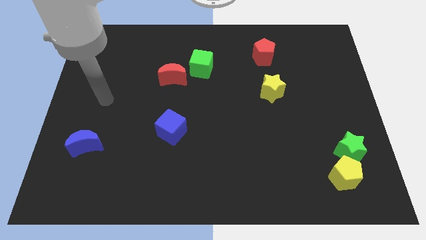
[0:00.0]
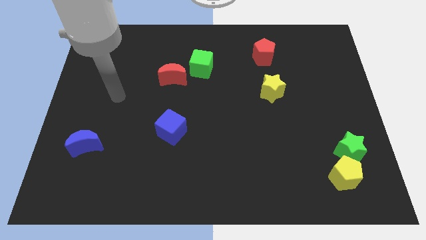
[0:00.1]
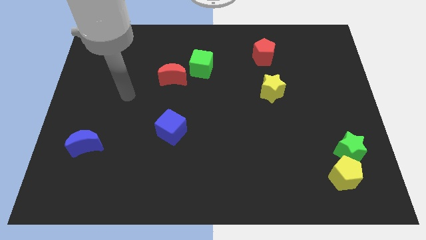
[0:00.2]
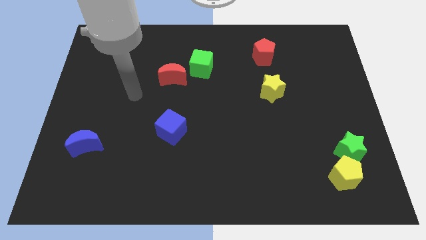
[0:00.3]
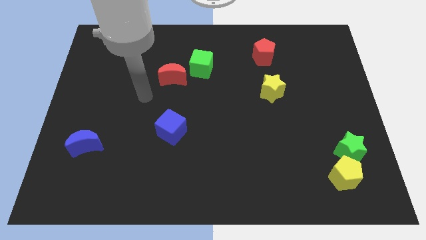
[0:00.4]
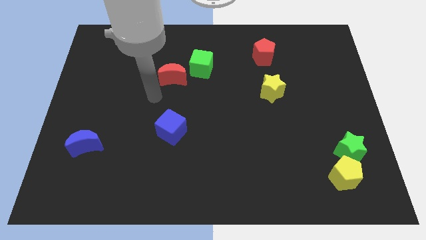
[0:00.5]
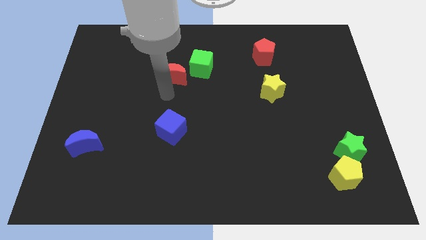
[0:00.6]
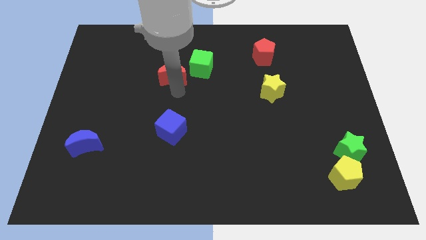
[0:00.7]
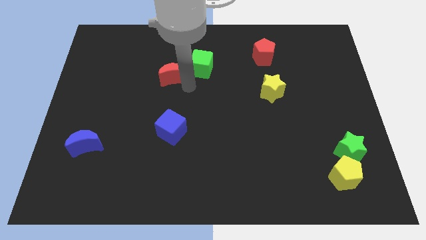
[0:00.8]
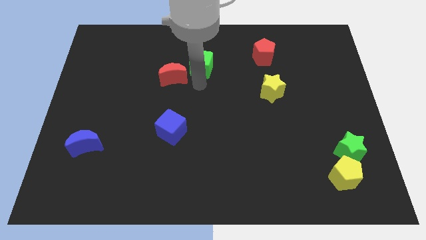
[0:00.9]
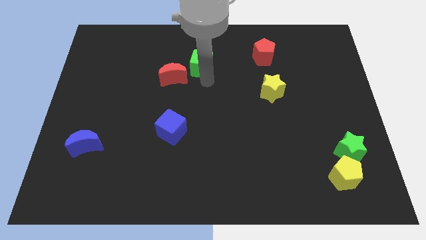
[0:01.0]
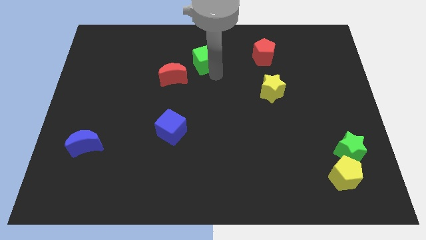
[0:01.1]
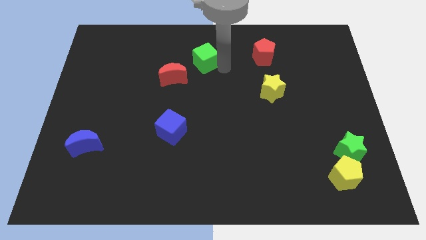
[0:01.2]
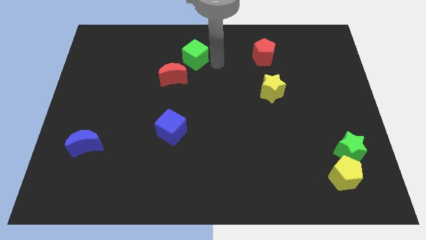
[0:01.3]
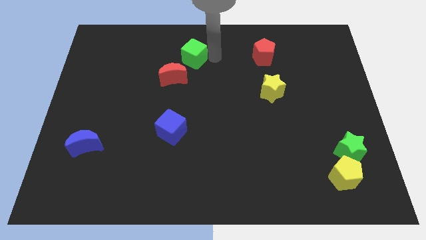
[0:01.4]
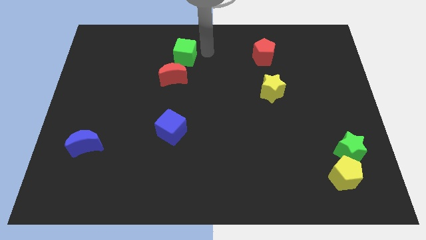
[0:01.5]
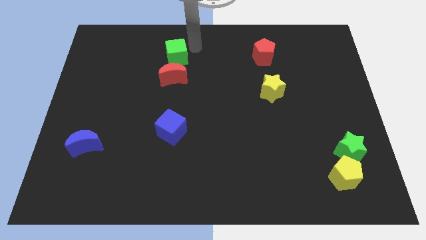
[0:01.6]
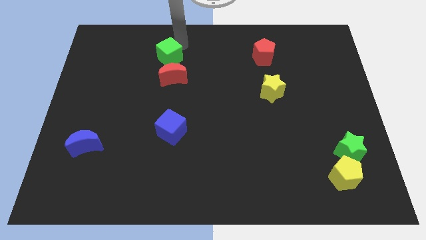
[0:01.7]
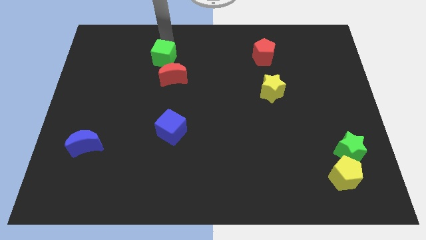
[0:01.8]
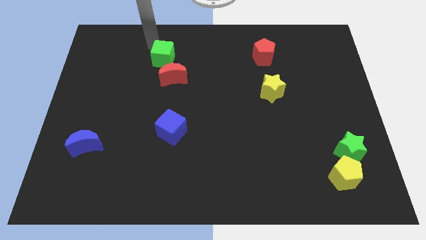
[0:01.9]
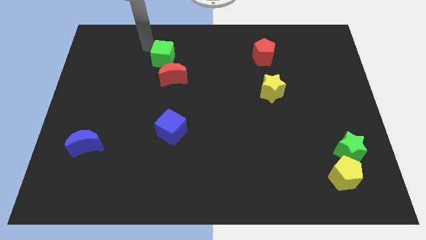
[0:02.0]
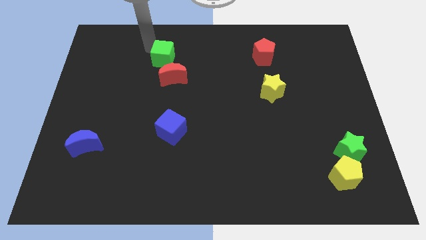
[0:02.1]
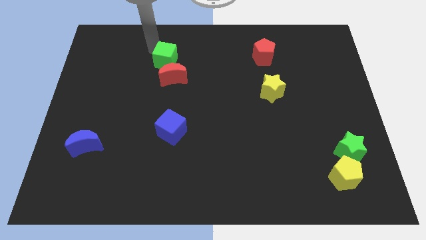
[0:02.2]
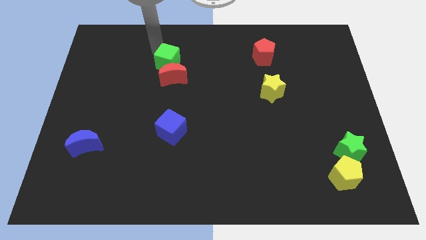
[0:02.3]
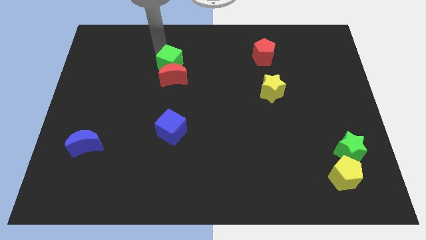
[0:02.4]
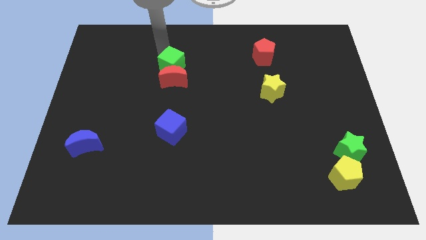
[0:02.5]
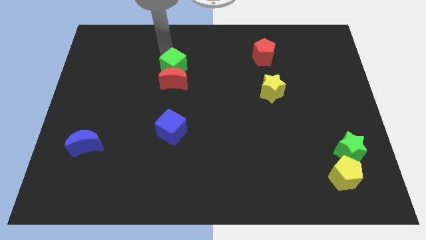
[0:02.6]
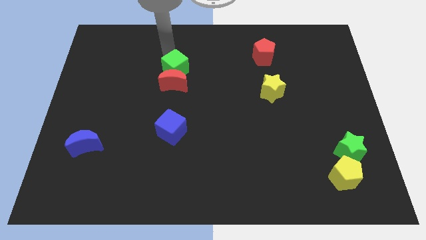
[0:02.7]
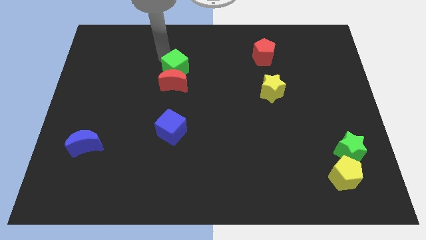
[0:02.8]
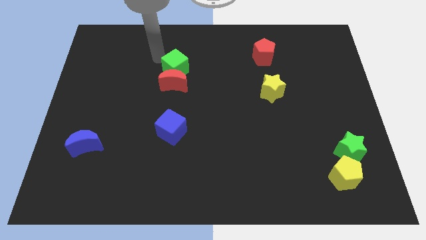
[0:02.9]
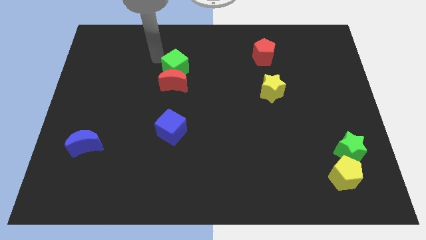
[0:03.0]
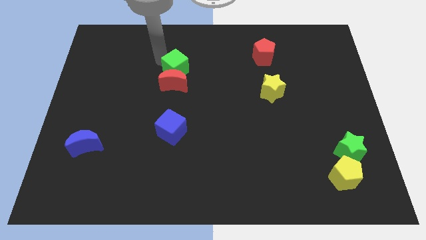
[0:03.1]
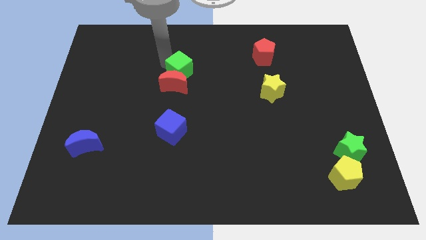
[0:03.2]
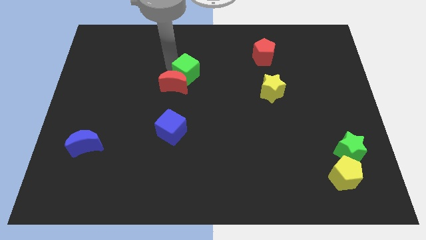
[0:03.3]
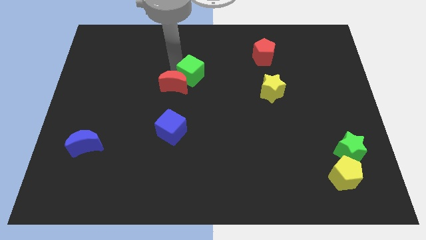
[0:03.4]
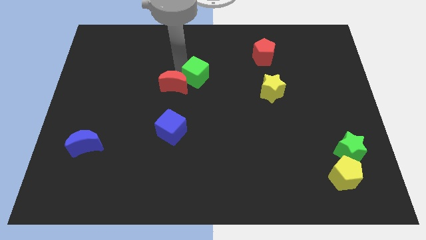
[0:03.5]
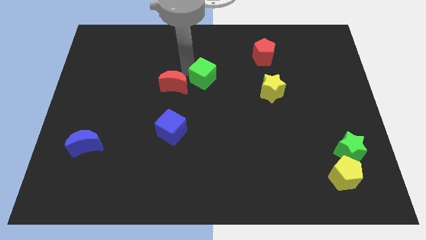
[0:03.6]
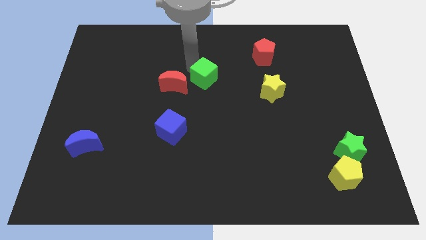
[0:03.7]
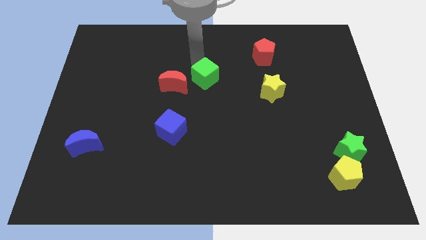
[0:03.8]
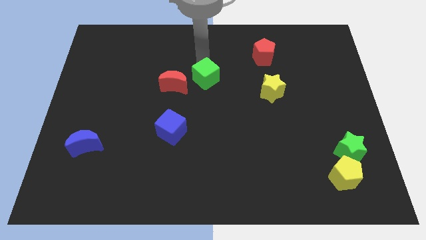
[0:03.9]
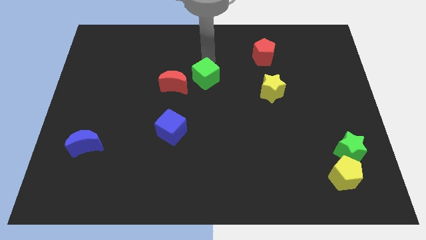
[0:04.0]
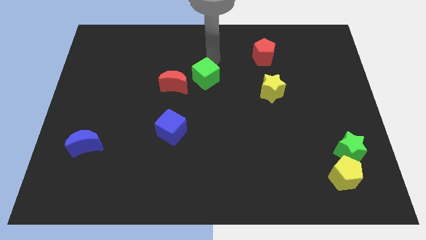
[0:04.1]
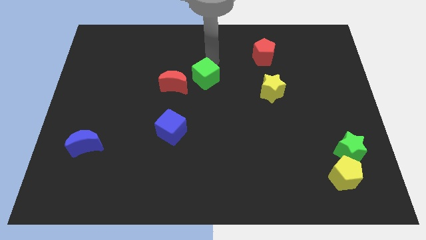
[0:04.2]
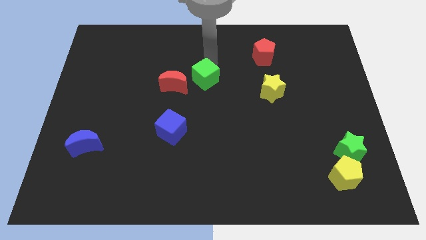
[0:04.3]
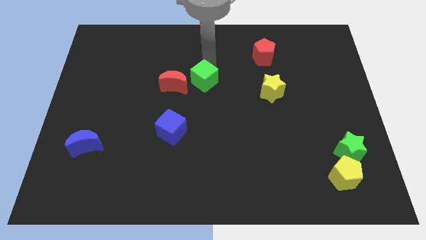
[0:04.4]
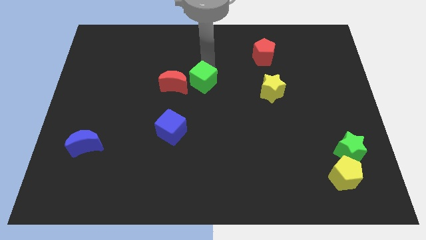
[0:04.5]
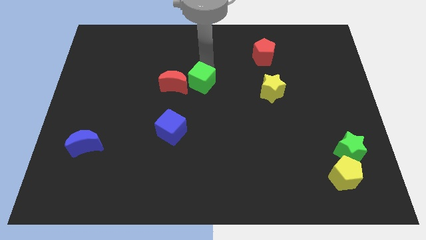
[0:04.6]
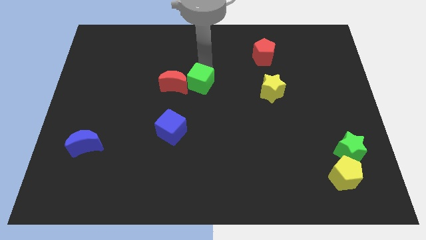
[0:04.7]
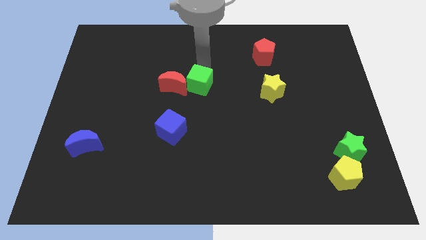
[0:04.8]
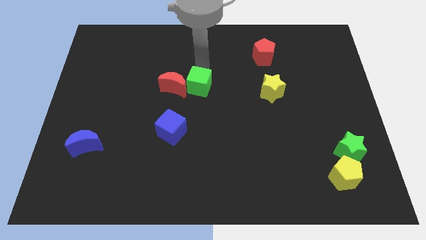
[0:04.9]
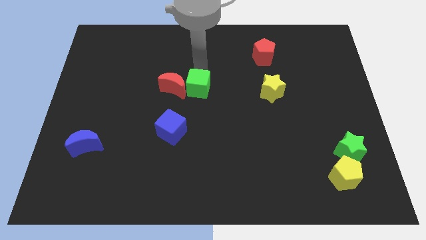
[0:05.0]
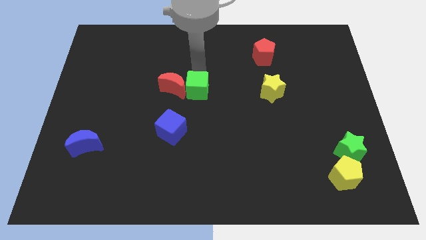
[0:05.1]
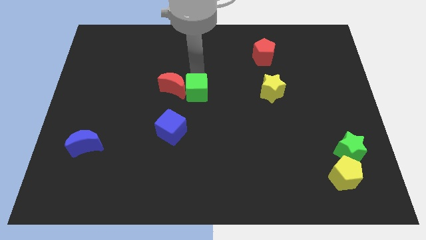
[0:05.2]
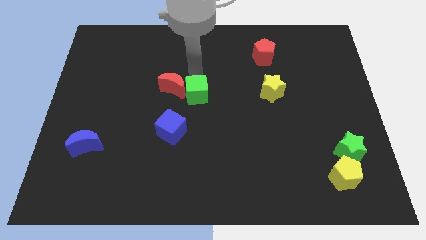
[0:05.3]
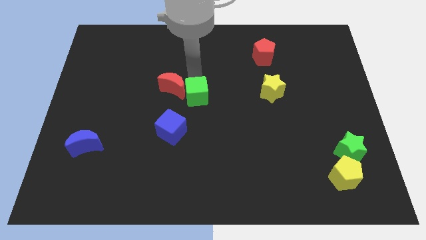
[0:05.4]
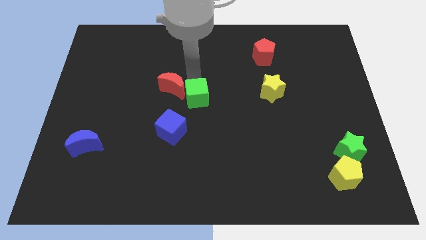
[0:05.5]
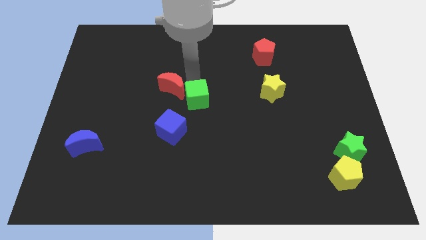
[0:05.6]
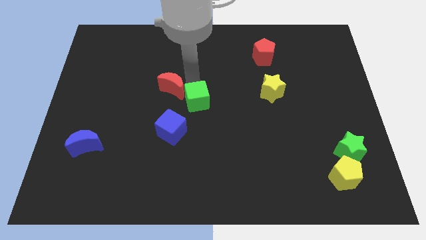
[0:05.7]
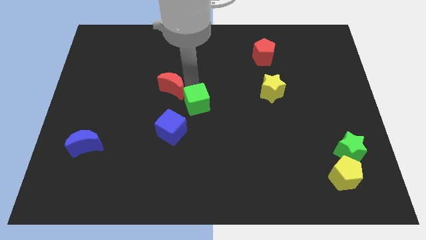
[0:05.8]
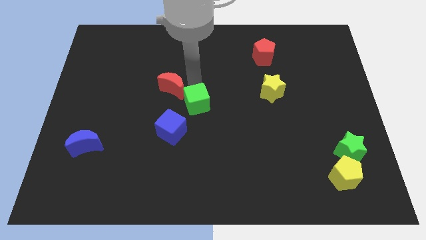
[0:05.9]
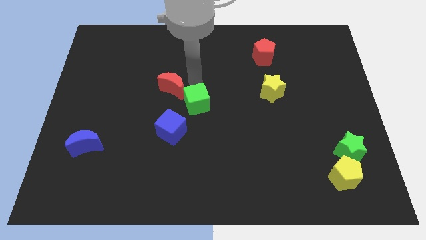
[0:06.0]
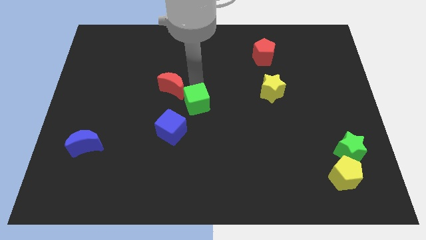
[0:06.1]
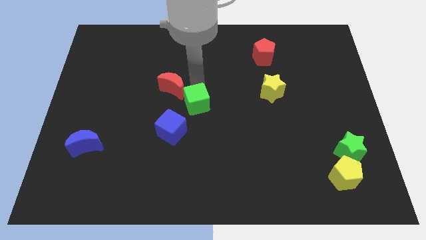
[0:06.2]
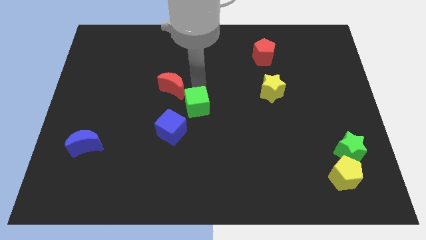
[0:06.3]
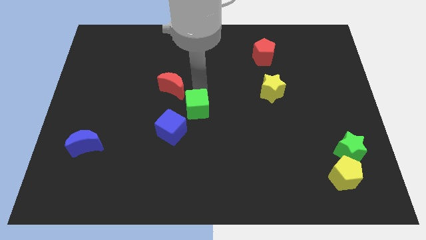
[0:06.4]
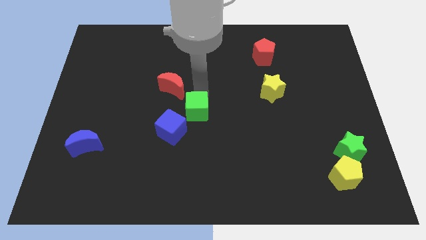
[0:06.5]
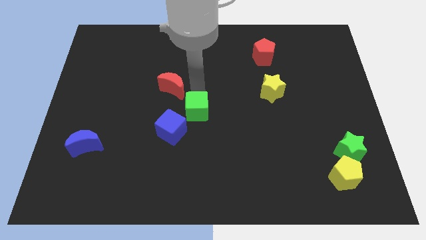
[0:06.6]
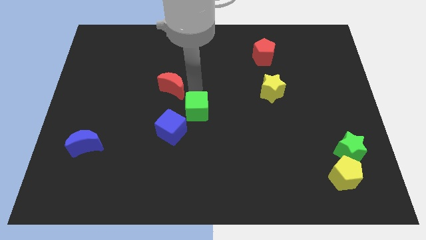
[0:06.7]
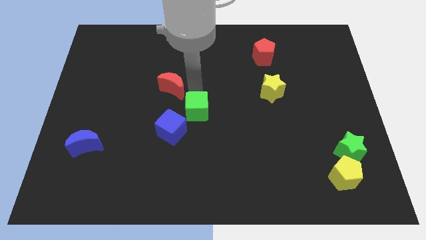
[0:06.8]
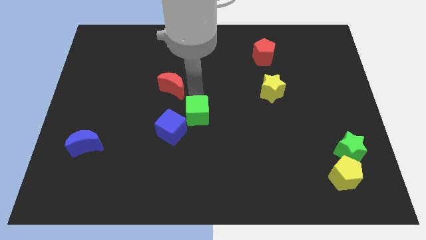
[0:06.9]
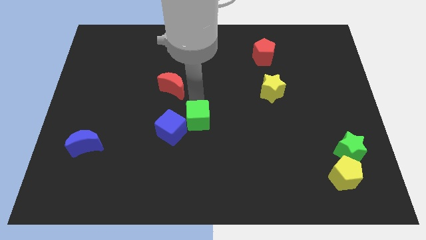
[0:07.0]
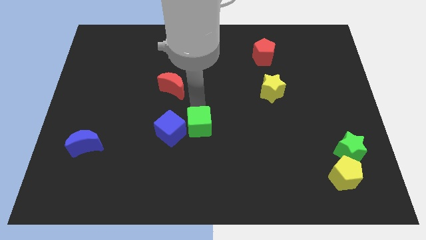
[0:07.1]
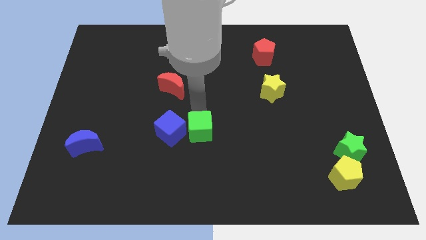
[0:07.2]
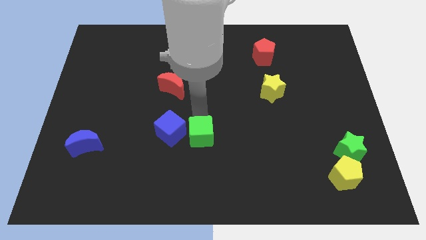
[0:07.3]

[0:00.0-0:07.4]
slide the green cube down

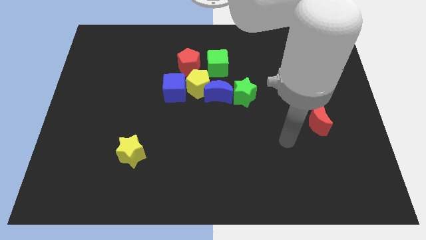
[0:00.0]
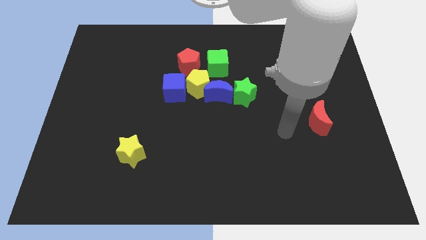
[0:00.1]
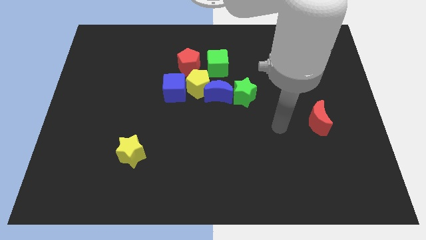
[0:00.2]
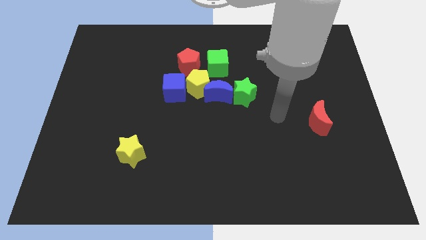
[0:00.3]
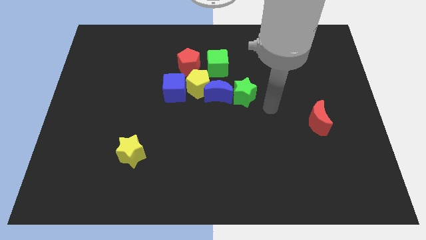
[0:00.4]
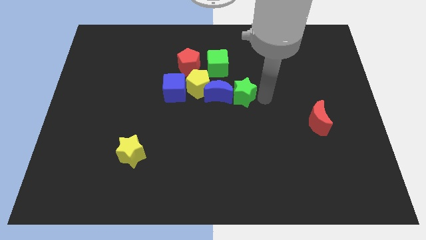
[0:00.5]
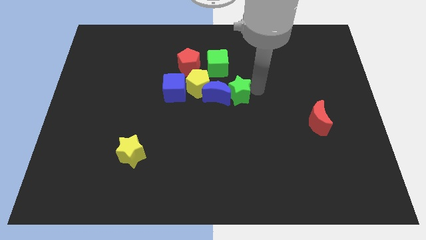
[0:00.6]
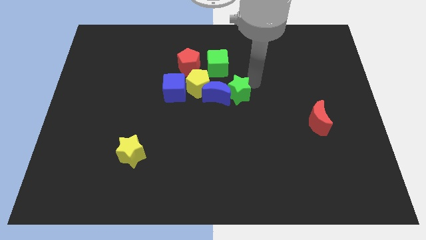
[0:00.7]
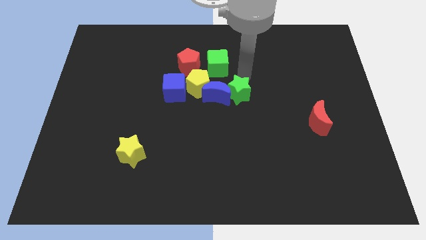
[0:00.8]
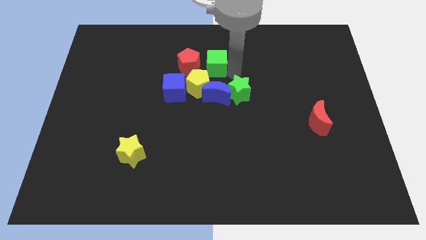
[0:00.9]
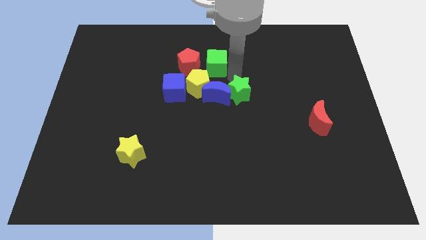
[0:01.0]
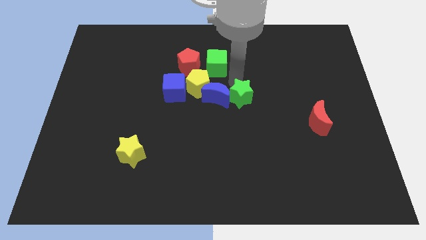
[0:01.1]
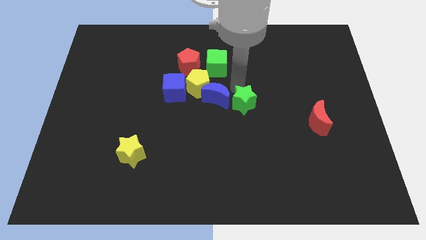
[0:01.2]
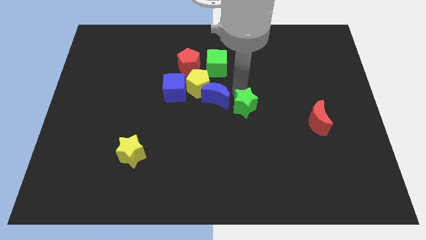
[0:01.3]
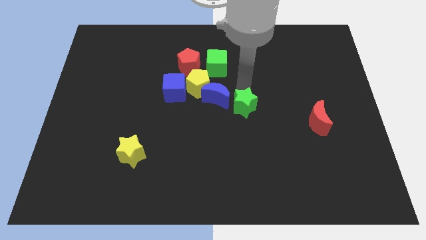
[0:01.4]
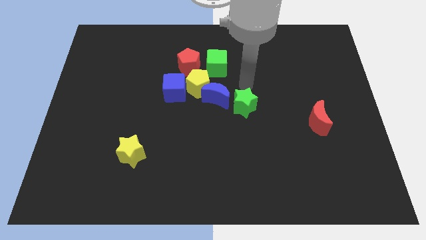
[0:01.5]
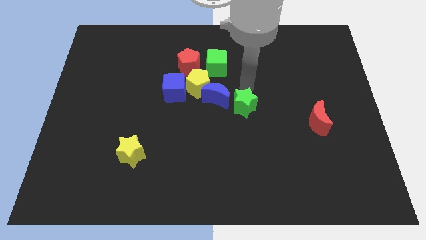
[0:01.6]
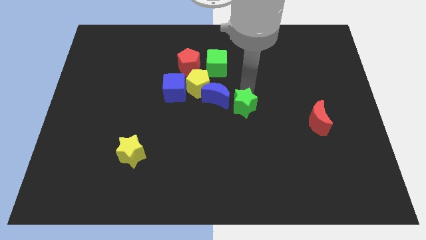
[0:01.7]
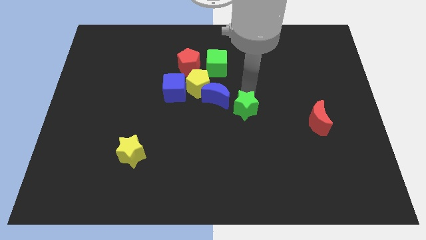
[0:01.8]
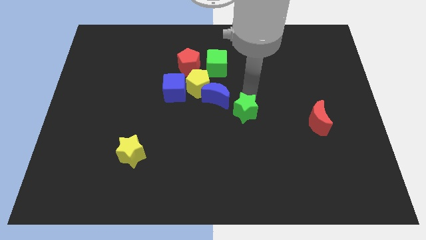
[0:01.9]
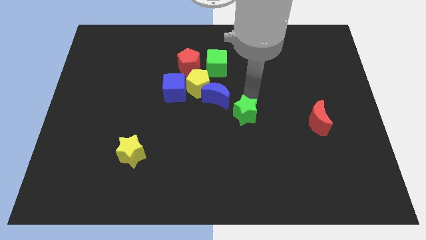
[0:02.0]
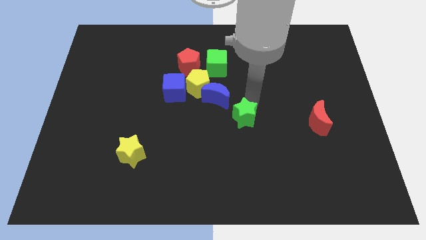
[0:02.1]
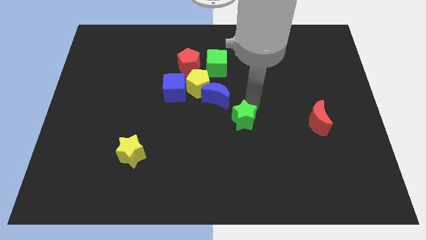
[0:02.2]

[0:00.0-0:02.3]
slide the green star a little bit downwards
